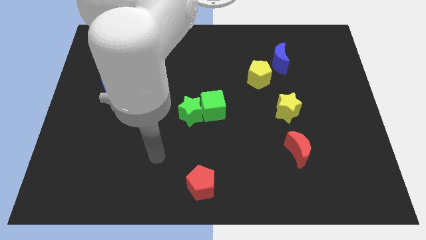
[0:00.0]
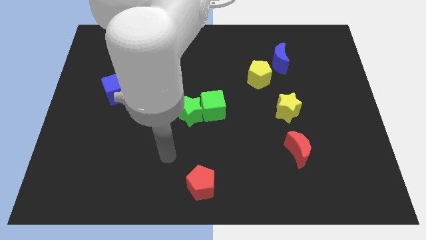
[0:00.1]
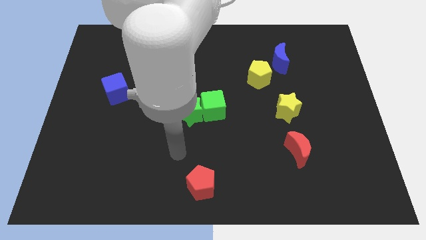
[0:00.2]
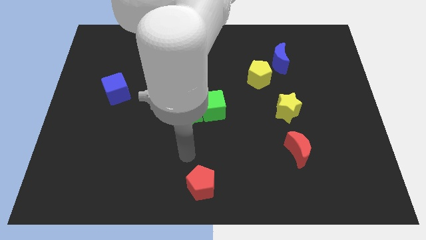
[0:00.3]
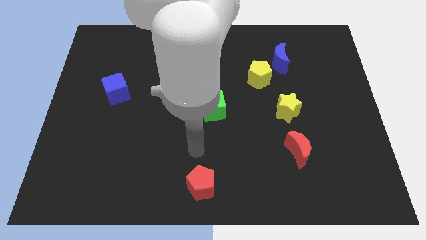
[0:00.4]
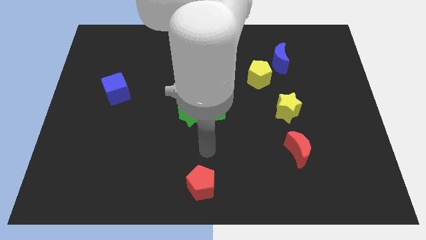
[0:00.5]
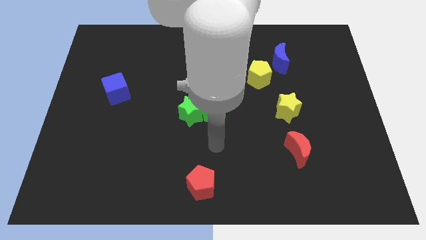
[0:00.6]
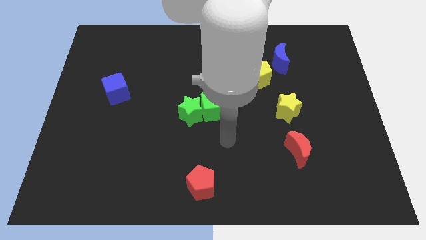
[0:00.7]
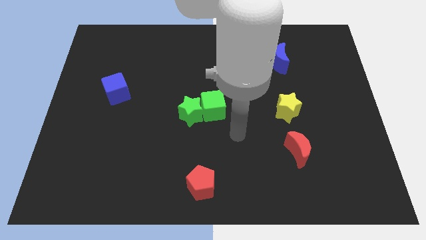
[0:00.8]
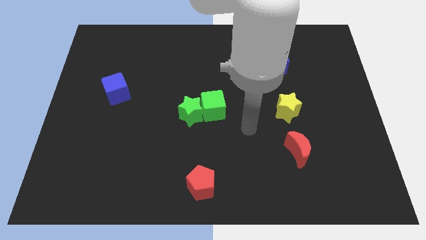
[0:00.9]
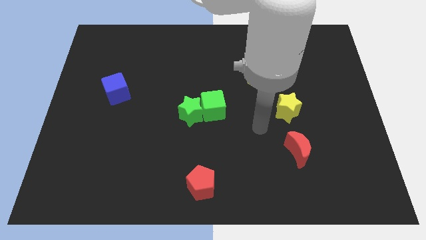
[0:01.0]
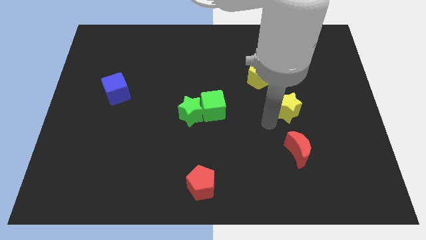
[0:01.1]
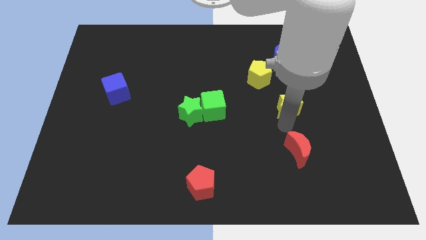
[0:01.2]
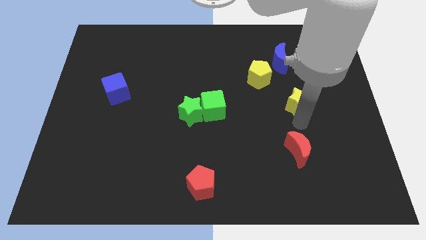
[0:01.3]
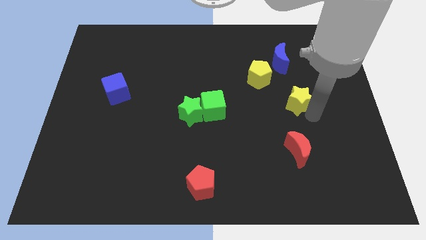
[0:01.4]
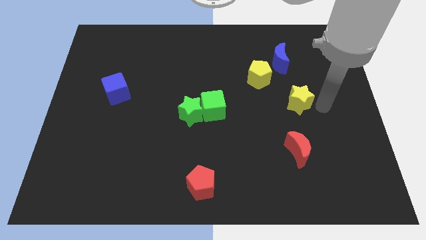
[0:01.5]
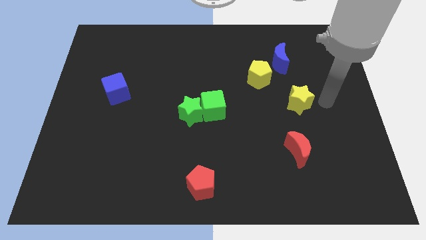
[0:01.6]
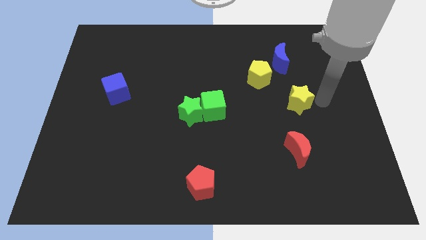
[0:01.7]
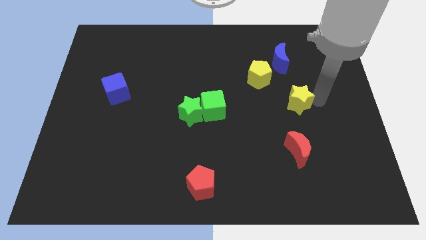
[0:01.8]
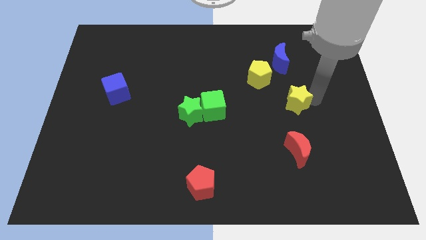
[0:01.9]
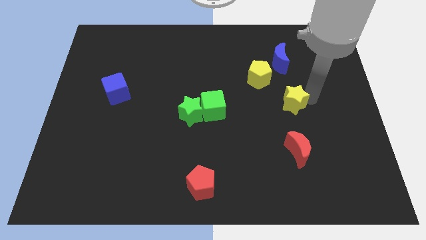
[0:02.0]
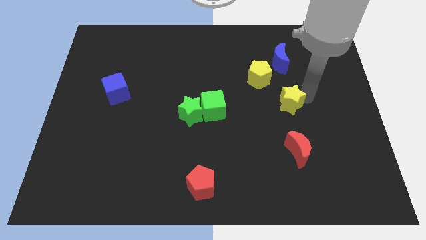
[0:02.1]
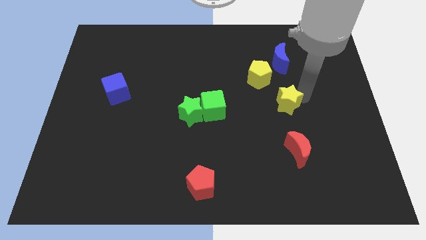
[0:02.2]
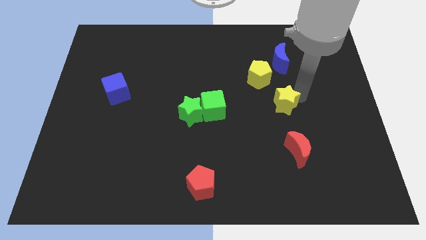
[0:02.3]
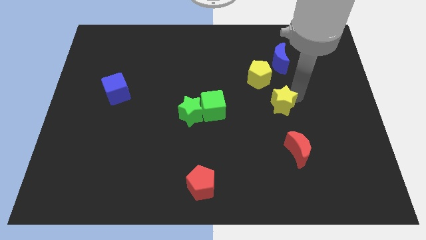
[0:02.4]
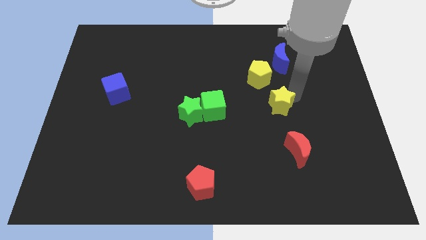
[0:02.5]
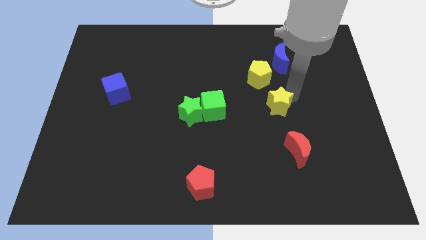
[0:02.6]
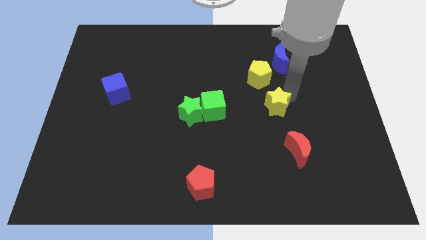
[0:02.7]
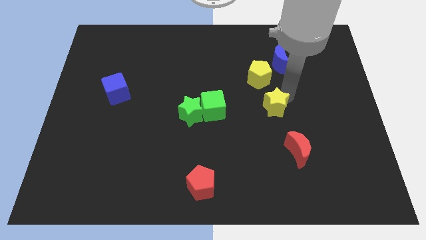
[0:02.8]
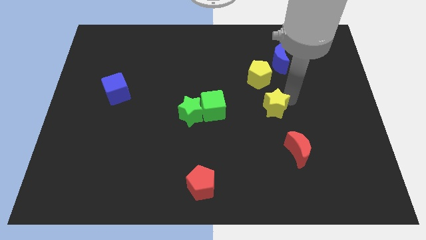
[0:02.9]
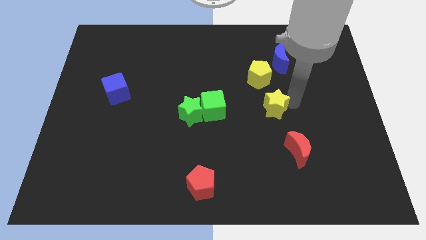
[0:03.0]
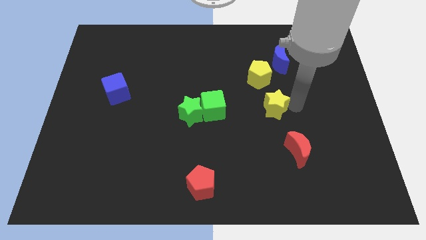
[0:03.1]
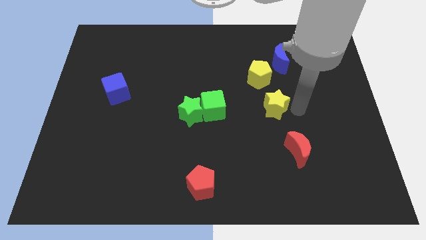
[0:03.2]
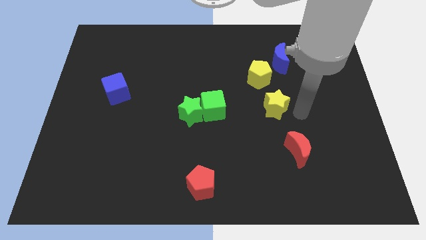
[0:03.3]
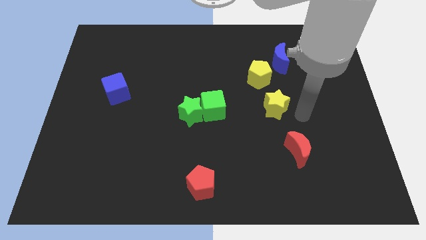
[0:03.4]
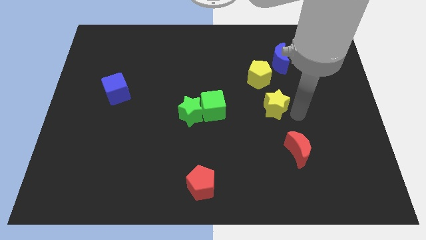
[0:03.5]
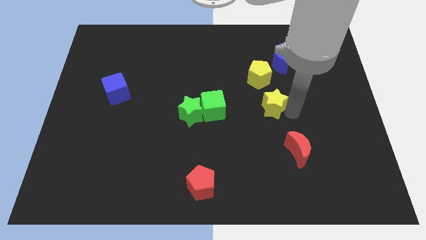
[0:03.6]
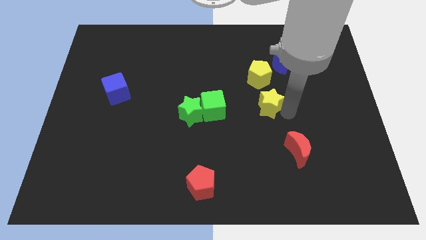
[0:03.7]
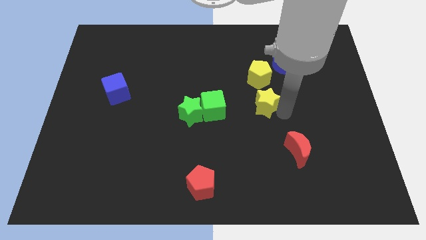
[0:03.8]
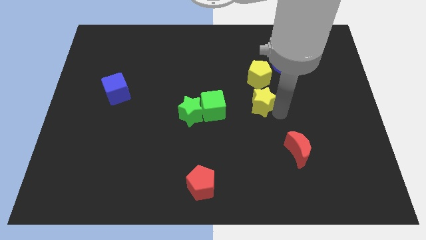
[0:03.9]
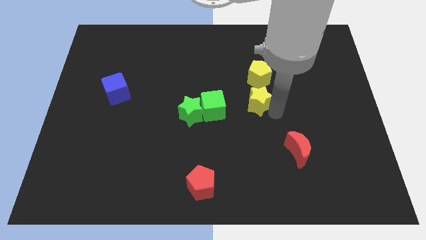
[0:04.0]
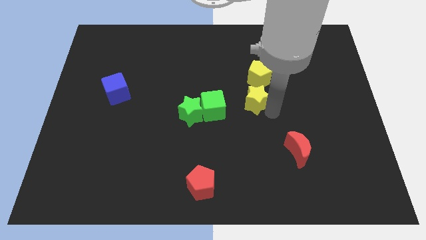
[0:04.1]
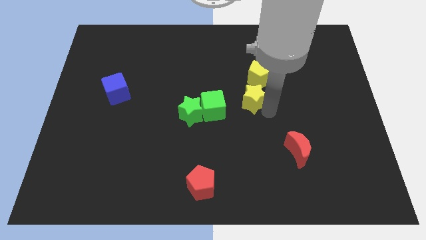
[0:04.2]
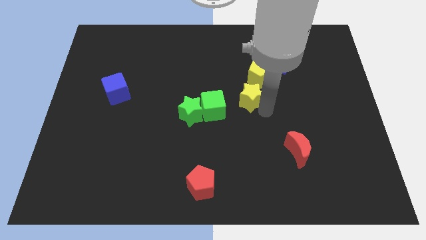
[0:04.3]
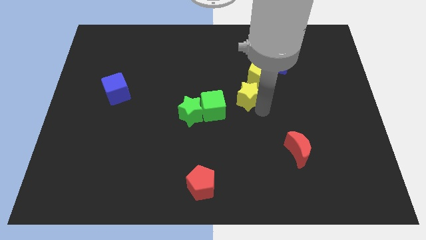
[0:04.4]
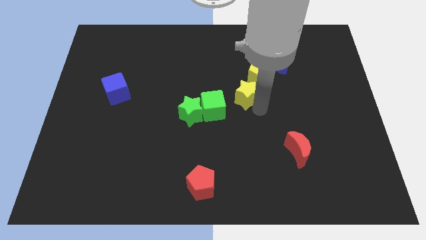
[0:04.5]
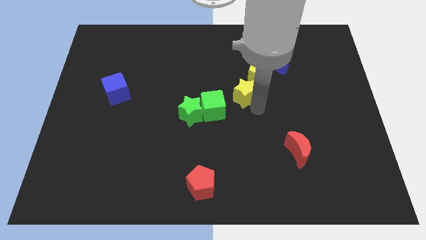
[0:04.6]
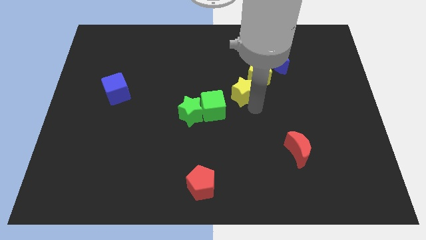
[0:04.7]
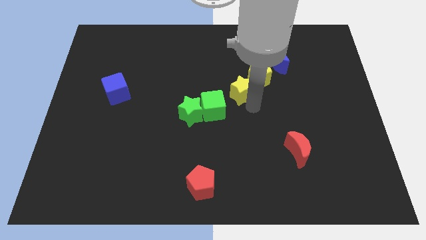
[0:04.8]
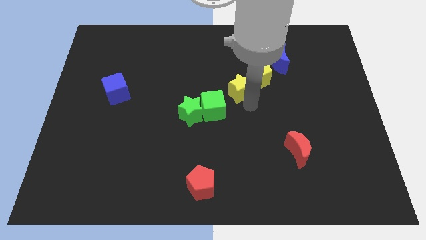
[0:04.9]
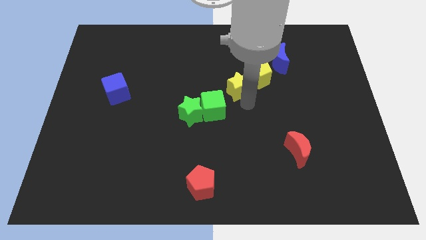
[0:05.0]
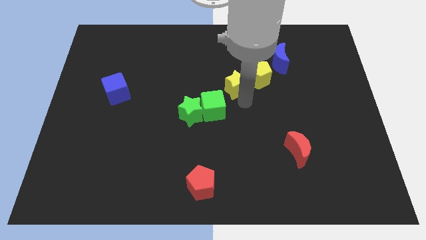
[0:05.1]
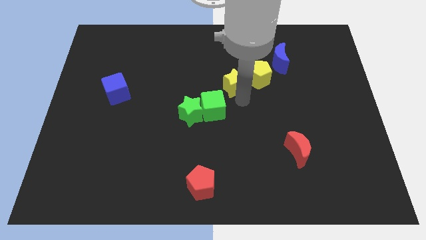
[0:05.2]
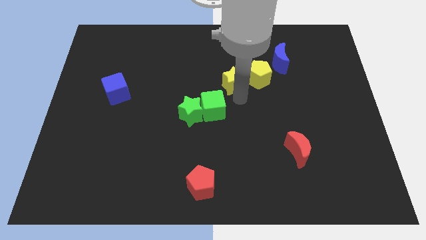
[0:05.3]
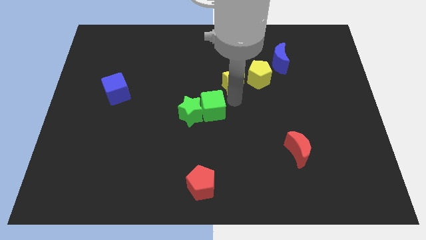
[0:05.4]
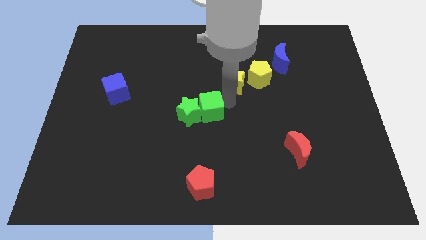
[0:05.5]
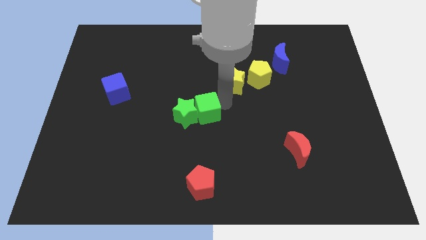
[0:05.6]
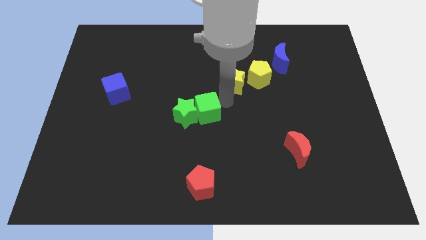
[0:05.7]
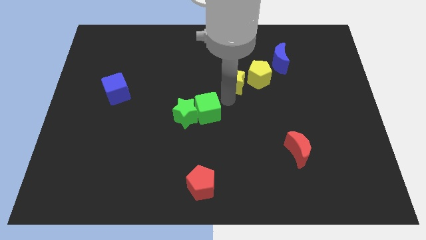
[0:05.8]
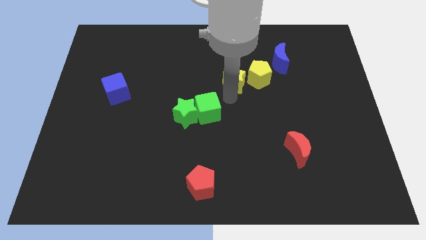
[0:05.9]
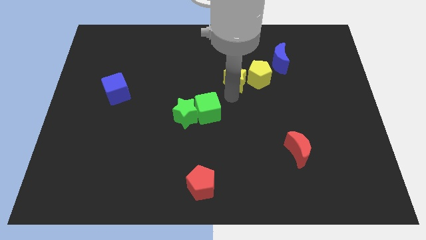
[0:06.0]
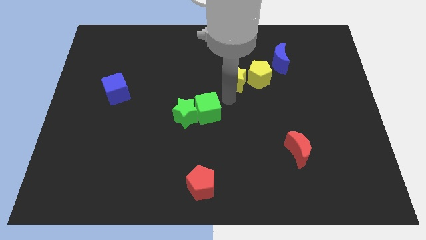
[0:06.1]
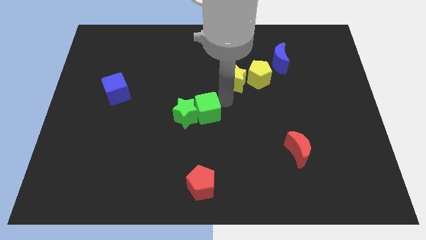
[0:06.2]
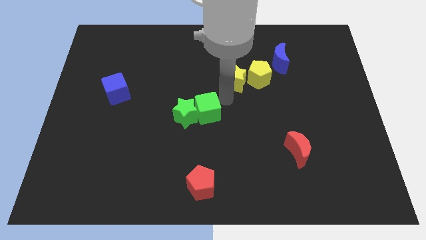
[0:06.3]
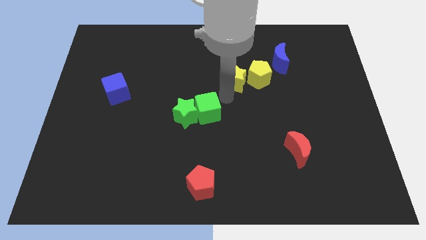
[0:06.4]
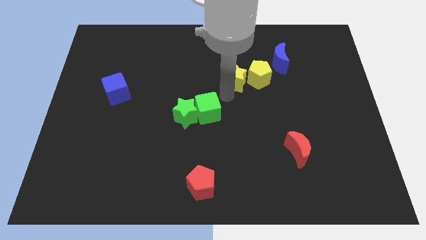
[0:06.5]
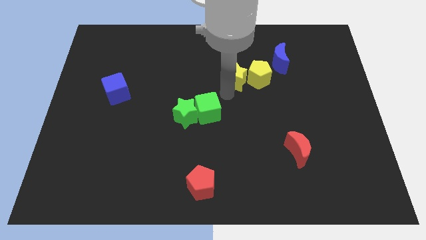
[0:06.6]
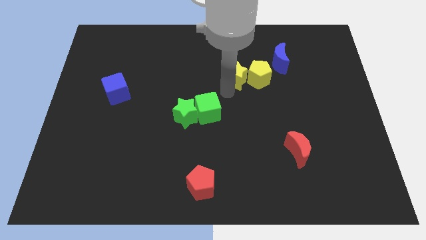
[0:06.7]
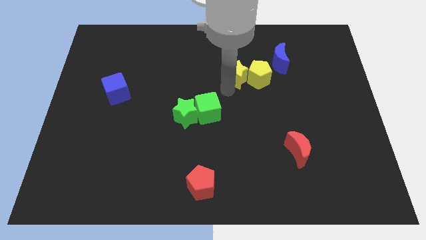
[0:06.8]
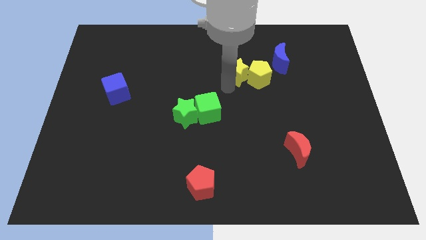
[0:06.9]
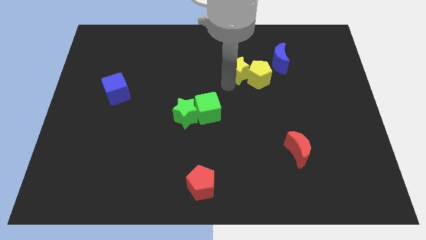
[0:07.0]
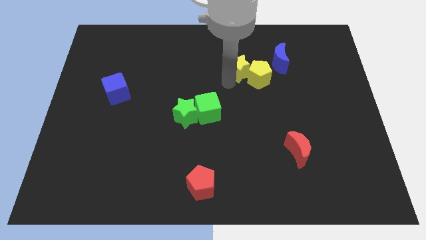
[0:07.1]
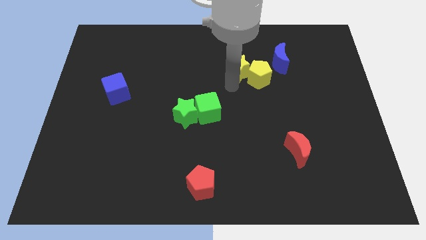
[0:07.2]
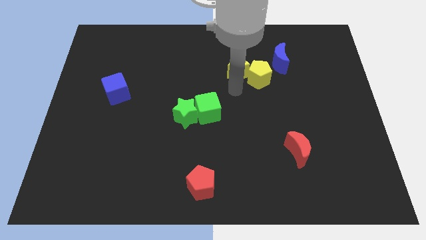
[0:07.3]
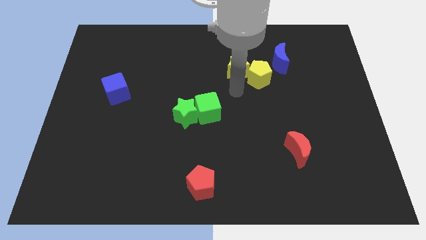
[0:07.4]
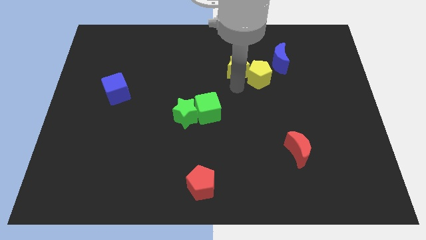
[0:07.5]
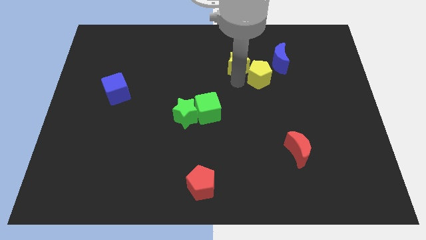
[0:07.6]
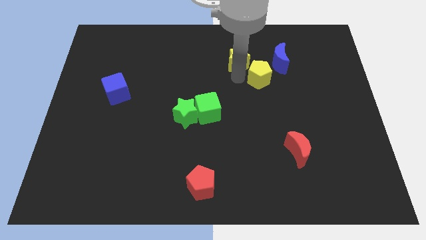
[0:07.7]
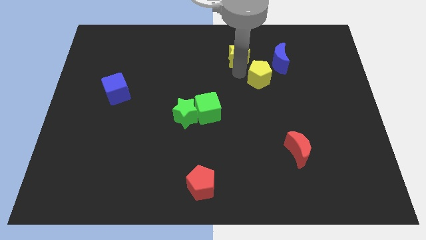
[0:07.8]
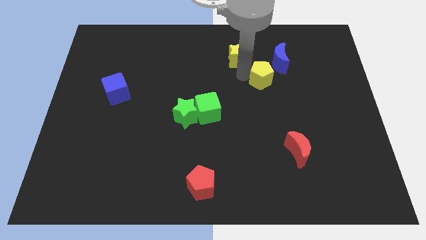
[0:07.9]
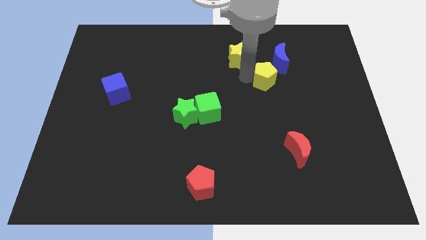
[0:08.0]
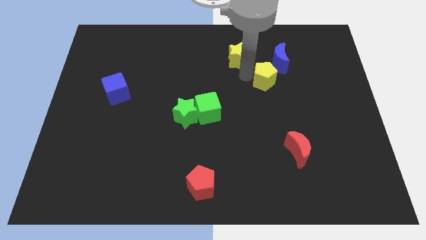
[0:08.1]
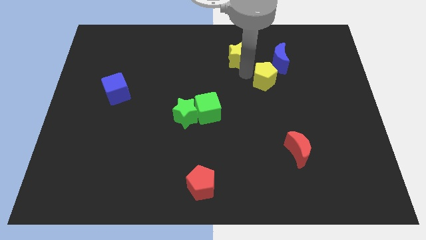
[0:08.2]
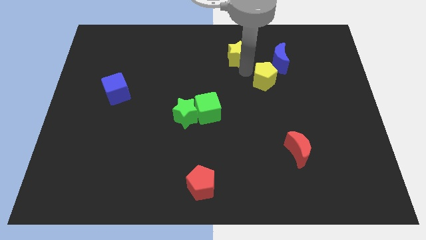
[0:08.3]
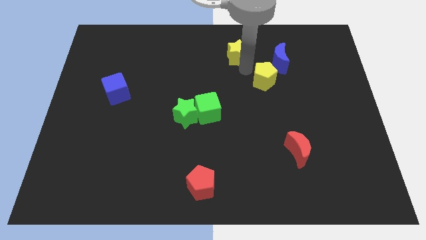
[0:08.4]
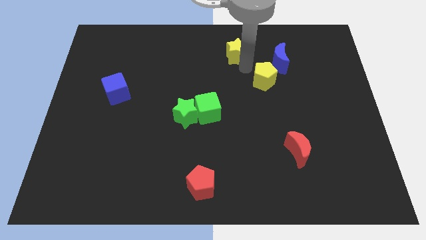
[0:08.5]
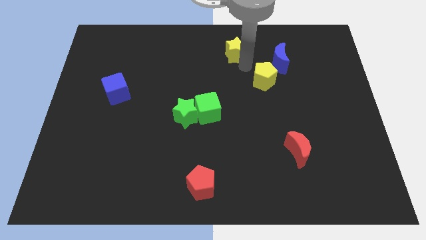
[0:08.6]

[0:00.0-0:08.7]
put the yellow star to the top
